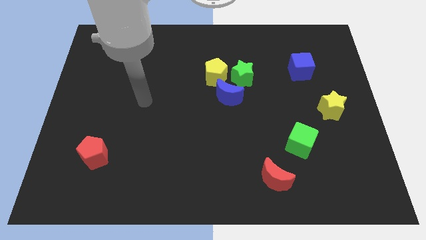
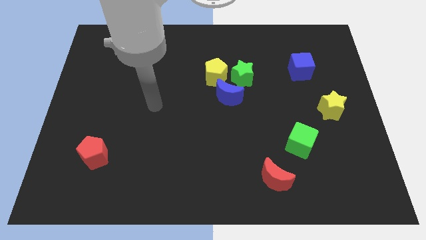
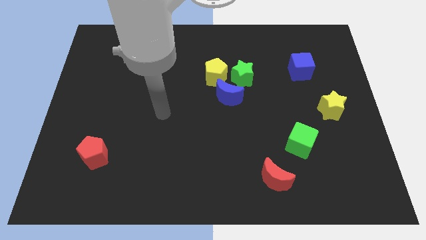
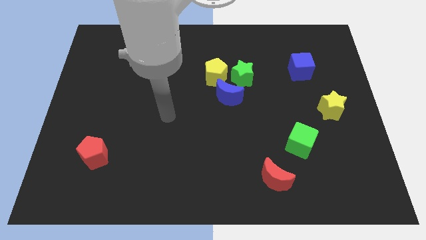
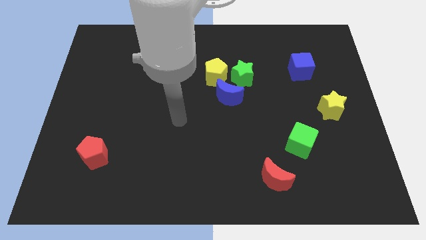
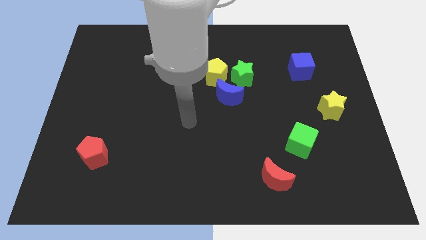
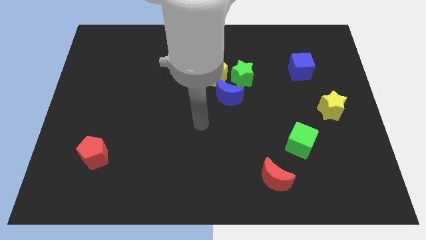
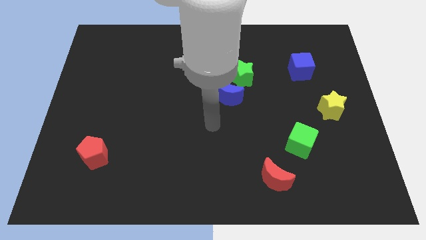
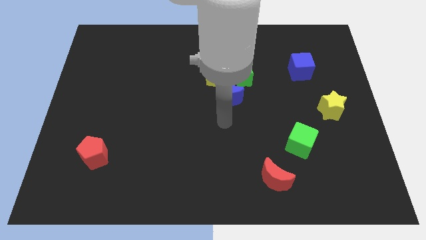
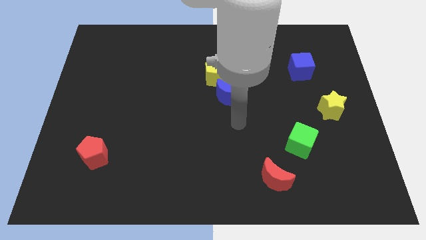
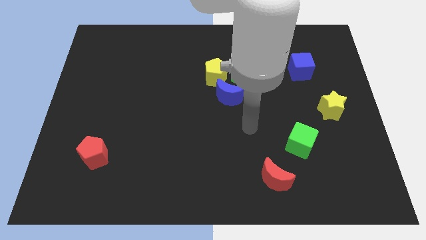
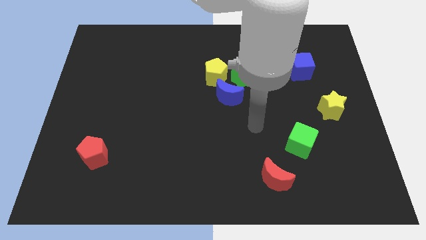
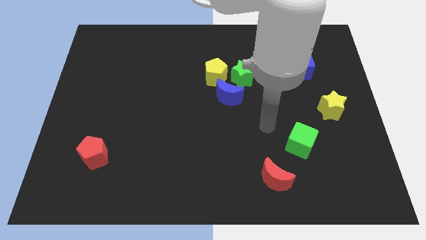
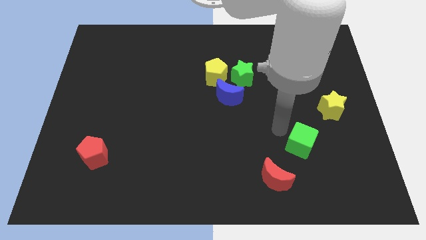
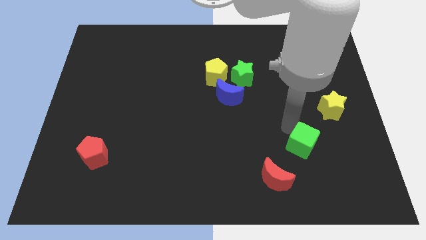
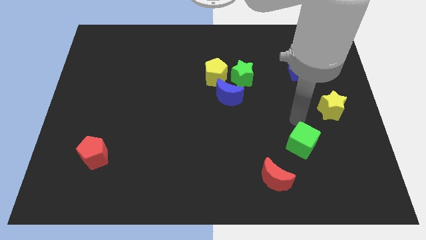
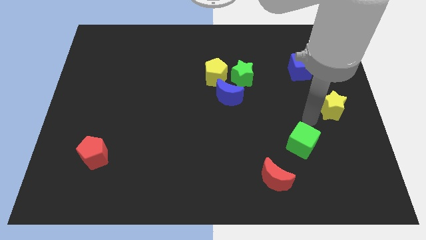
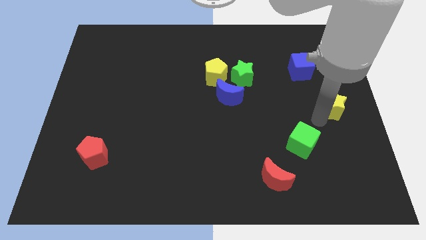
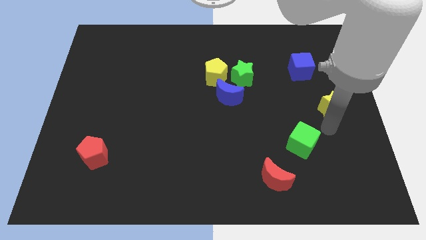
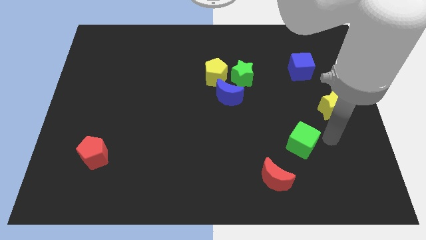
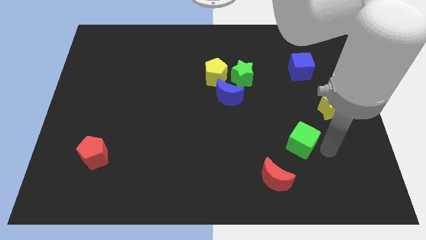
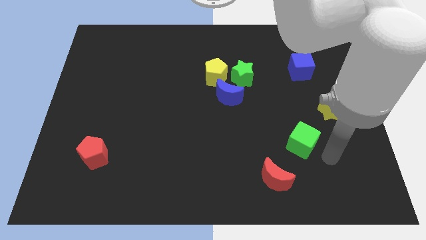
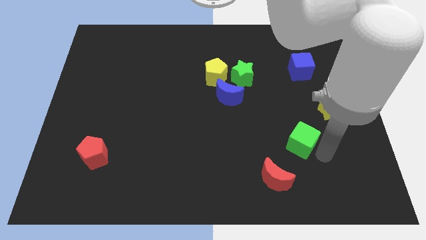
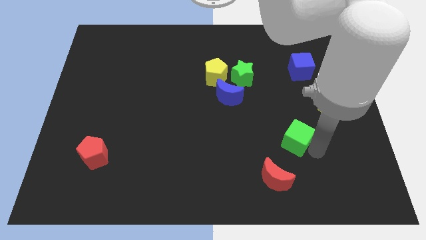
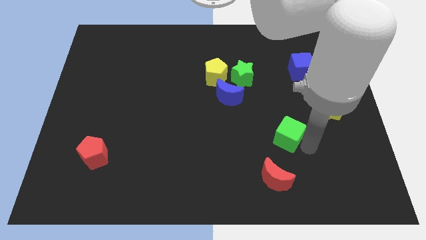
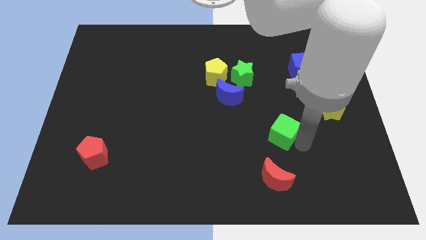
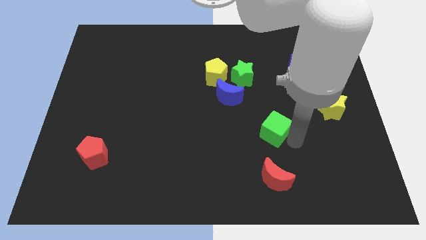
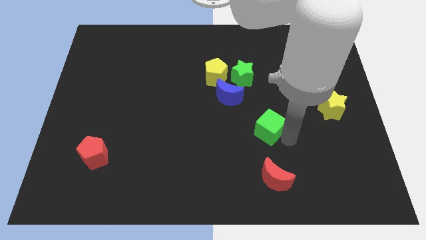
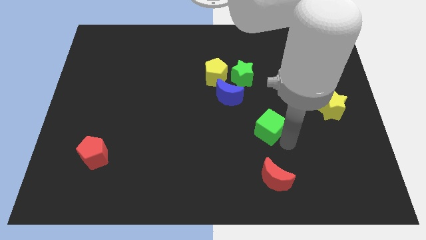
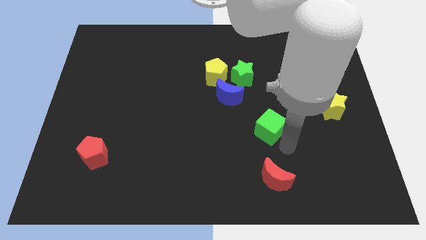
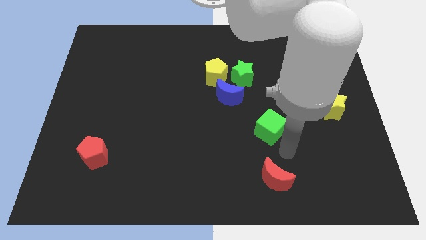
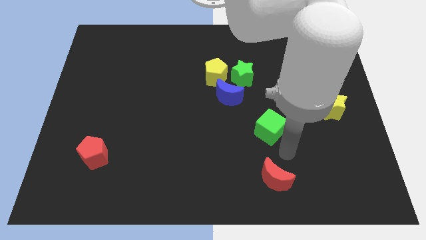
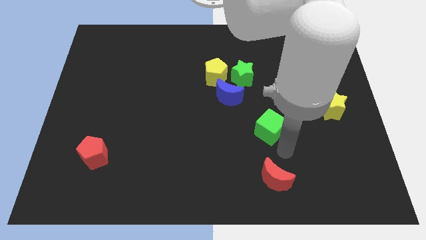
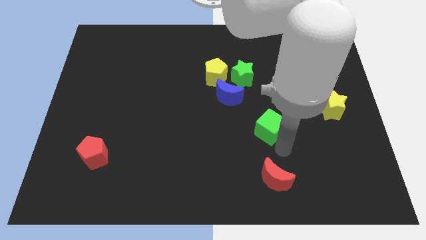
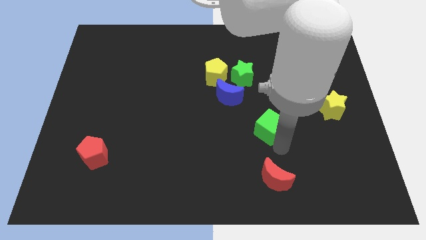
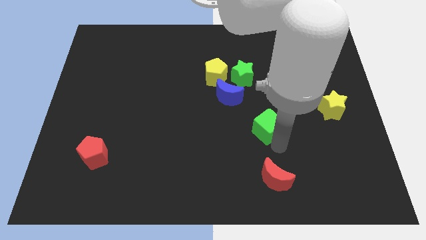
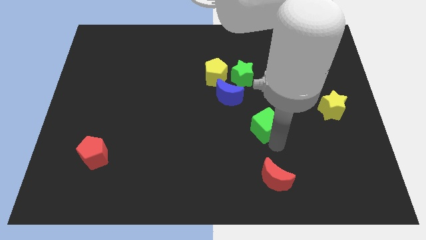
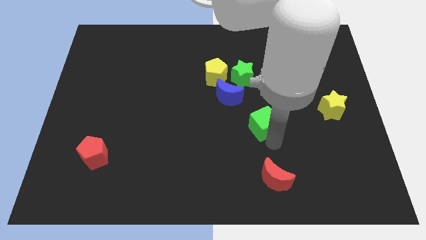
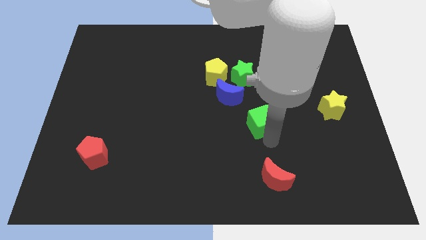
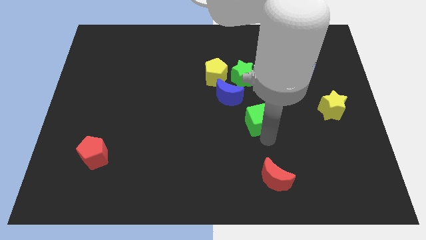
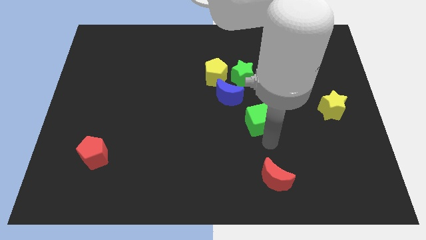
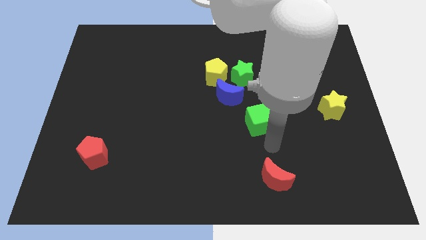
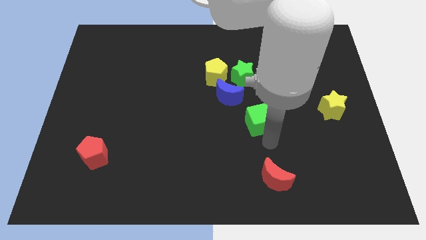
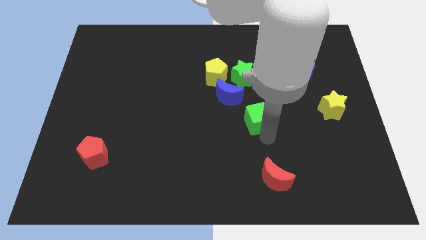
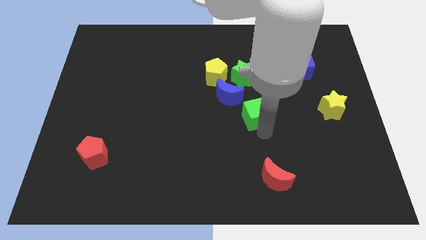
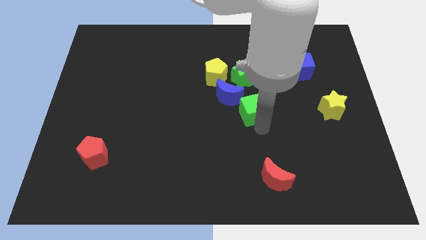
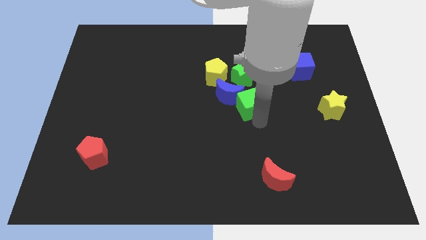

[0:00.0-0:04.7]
put the green cube to the blue moon

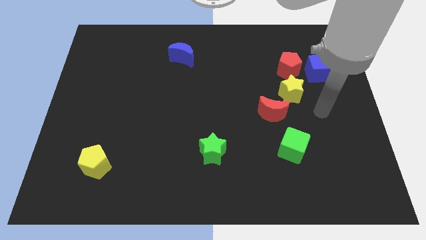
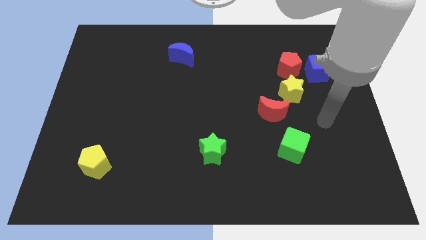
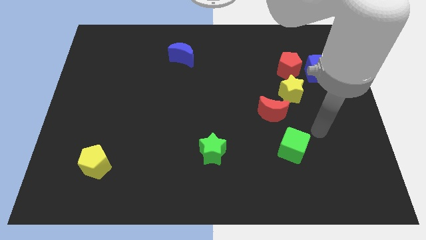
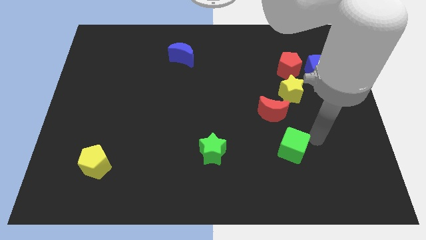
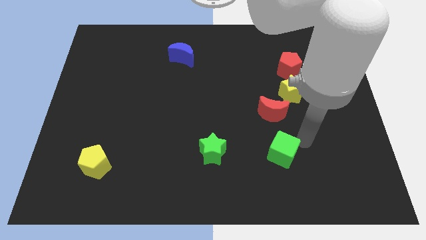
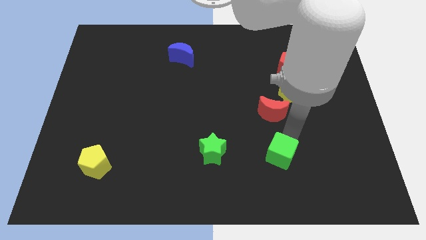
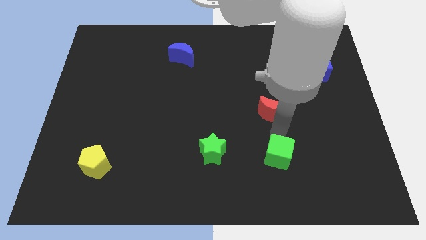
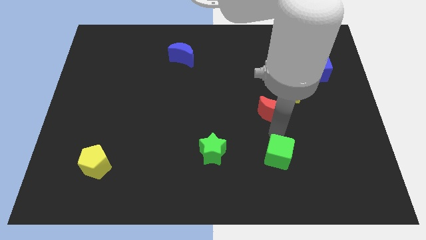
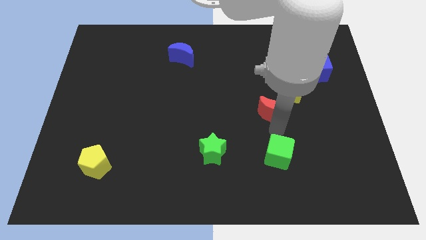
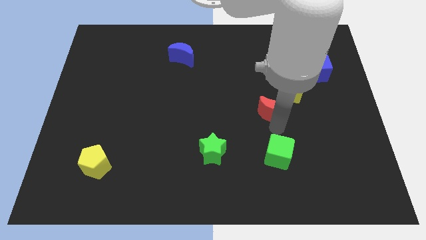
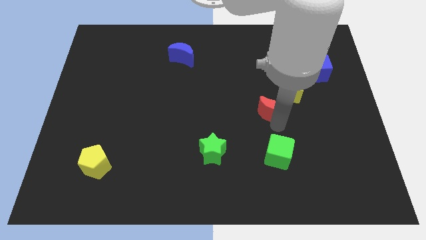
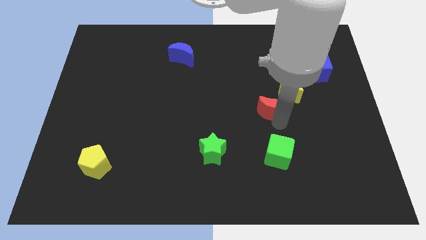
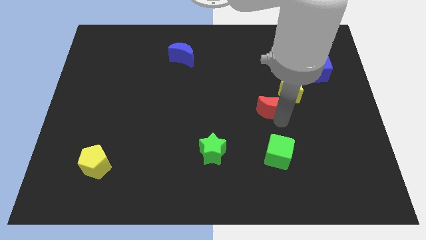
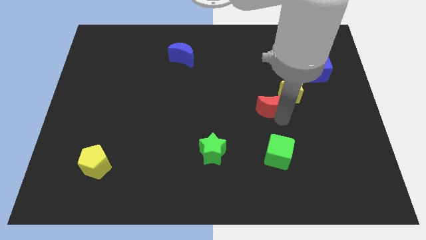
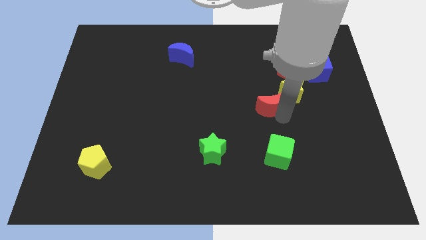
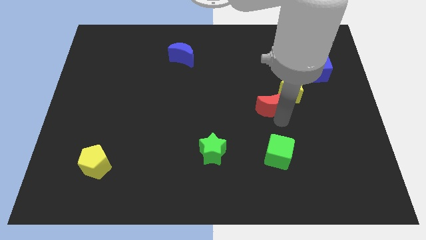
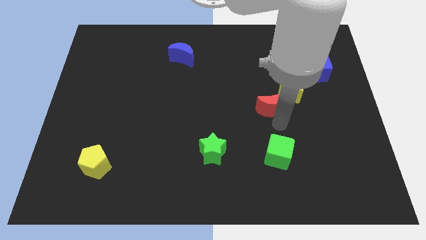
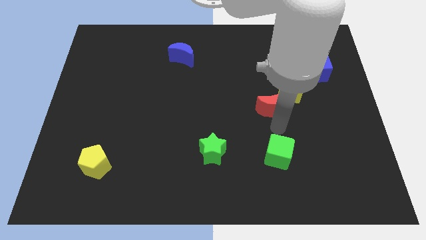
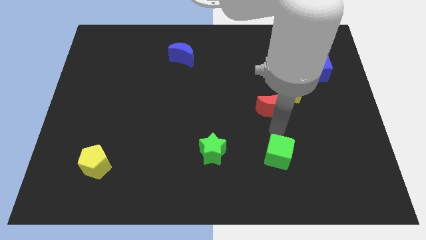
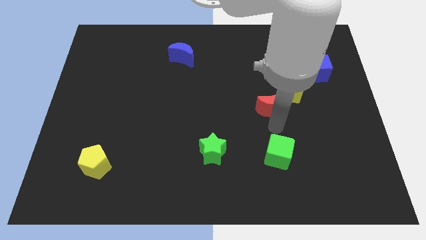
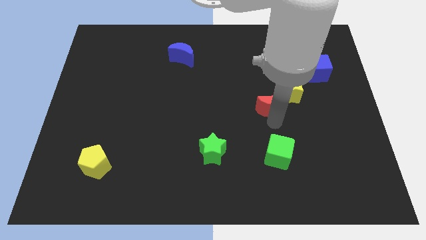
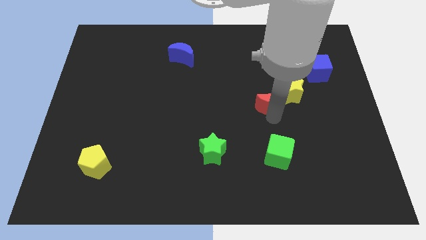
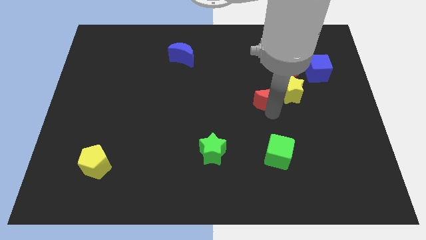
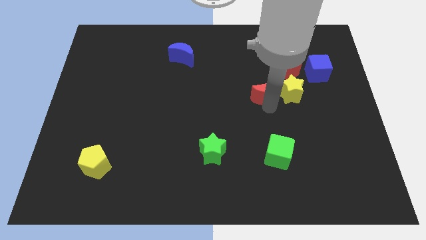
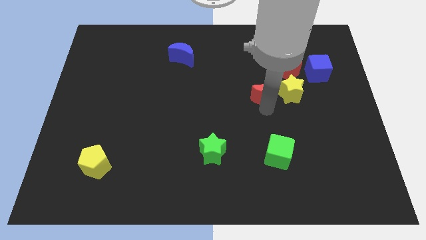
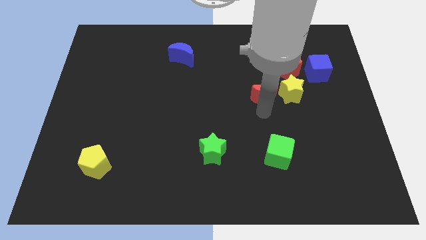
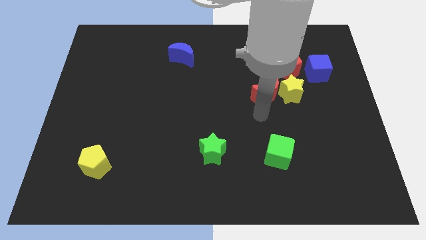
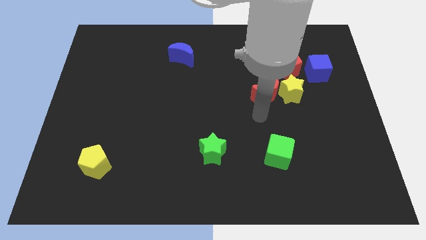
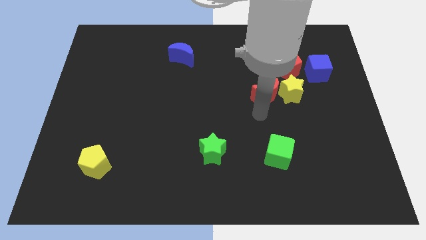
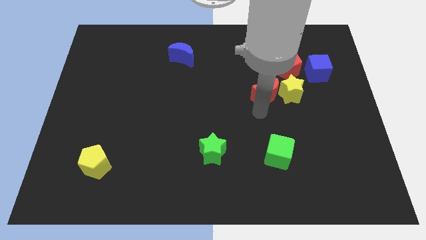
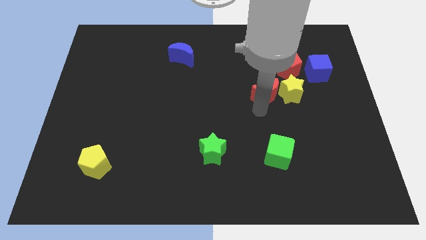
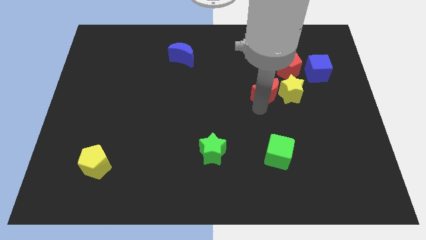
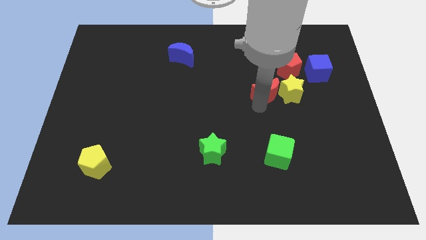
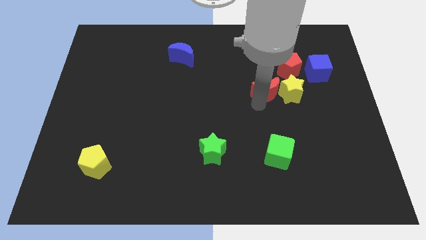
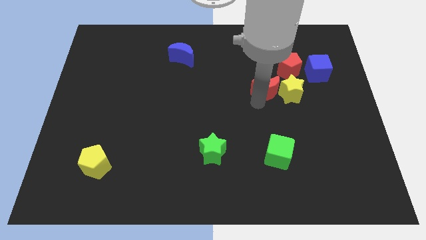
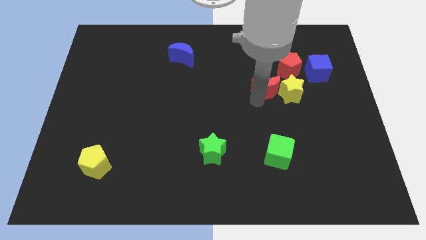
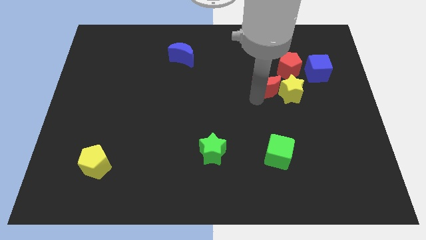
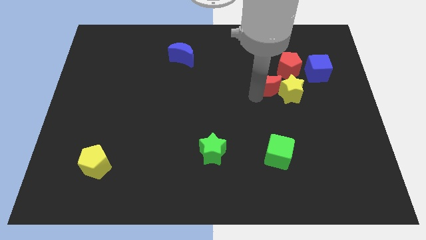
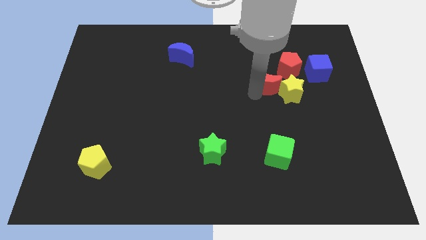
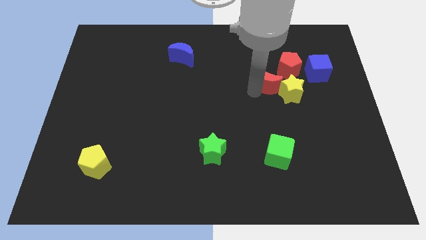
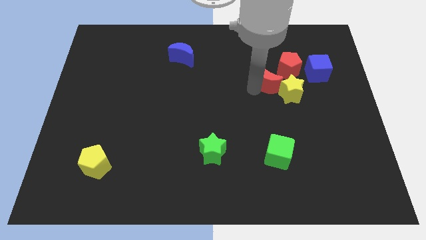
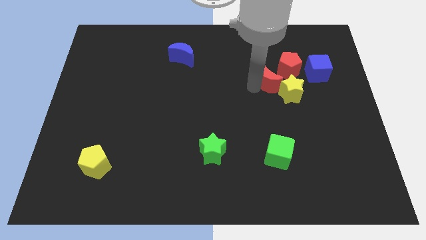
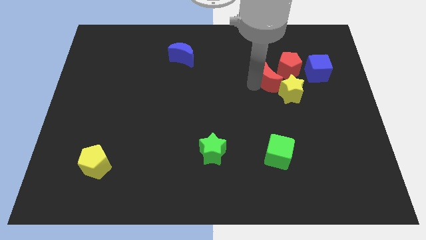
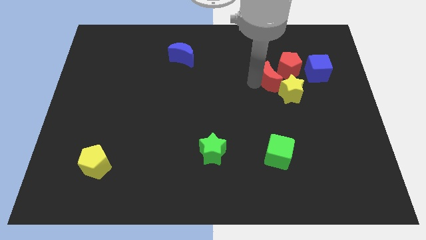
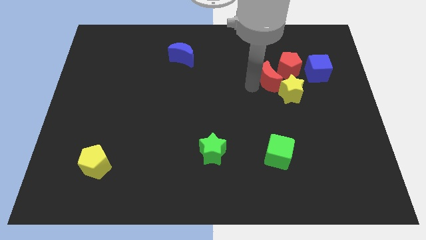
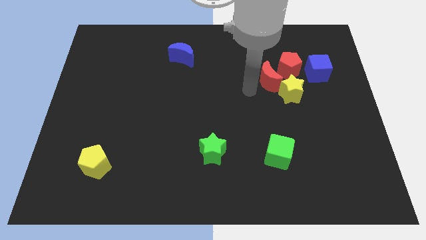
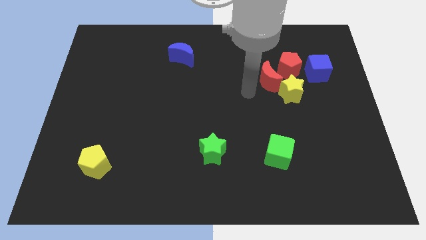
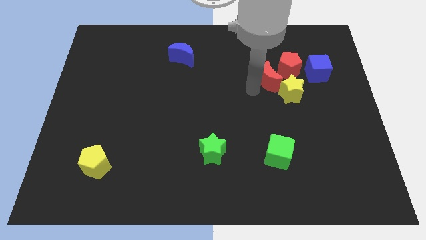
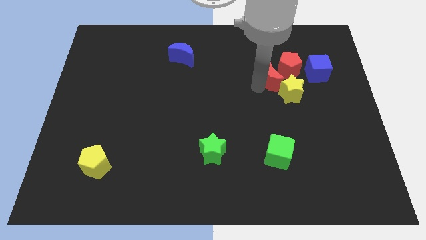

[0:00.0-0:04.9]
move the red moon to the red pentagon
